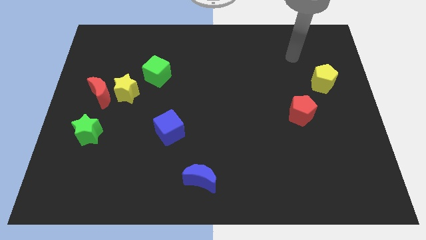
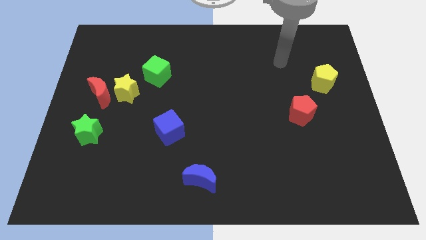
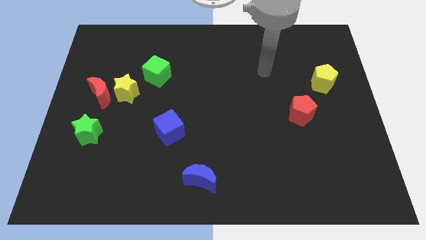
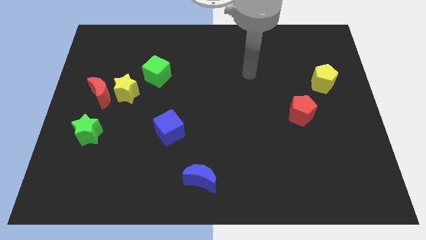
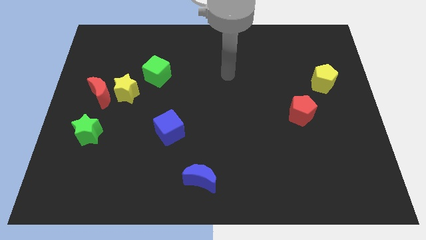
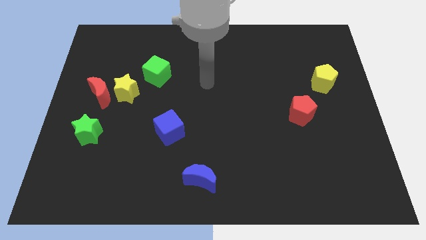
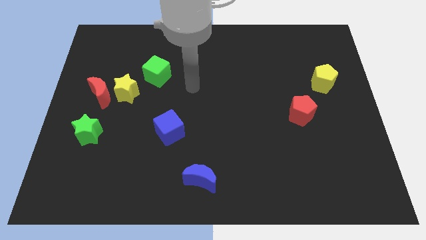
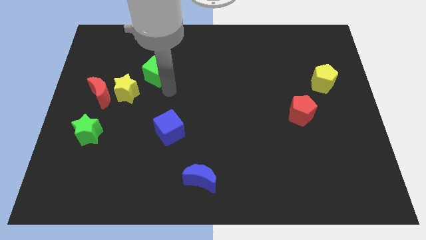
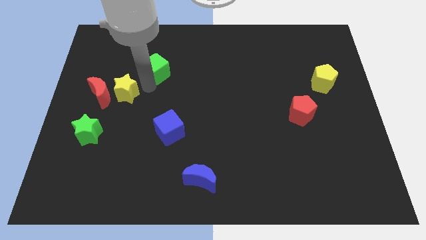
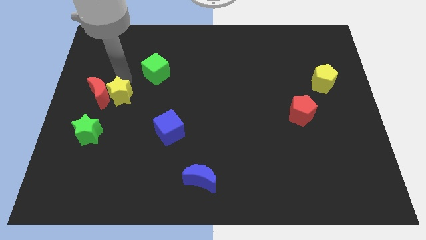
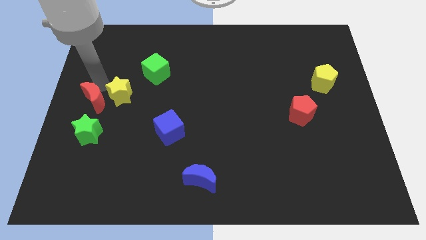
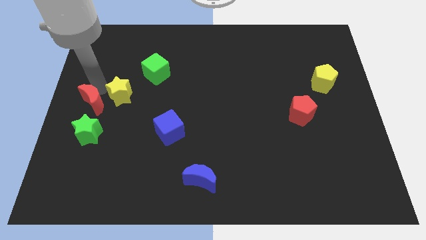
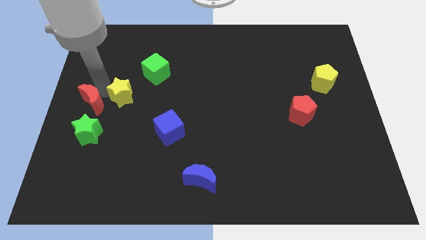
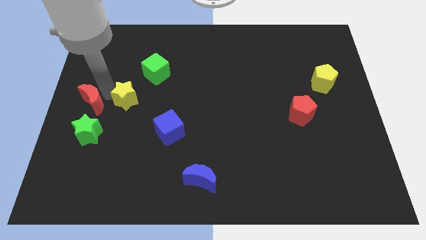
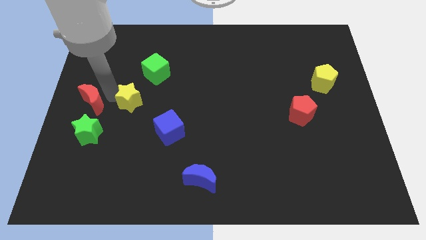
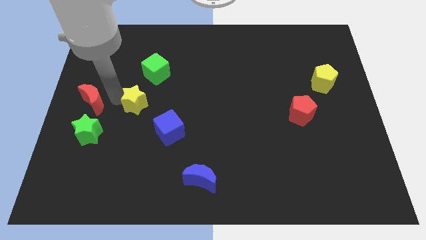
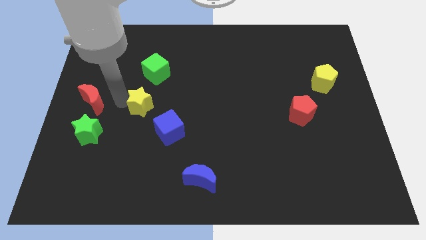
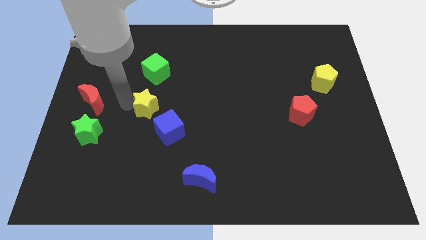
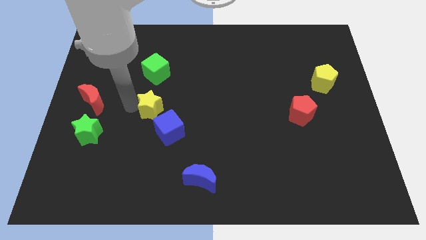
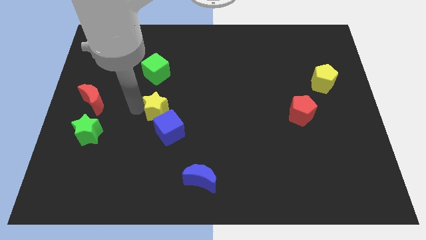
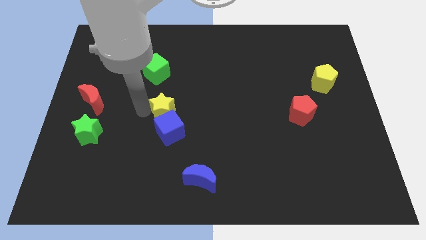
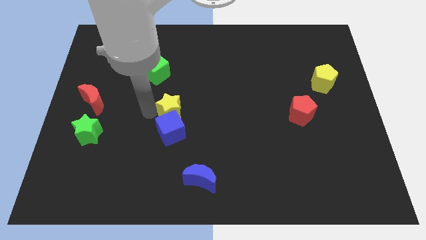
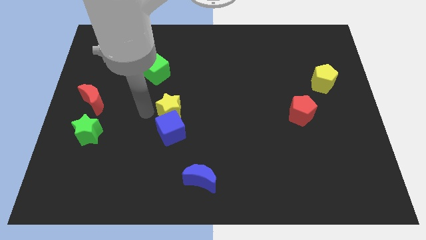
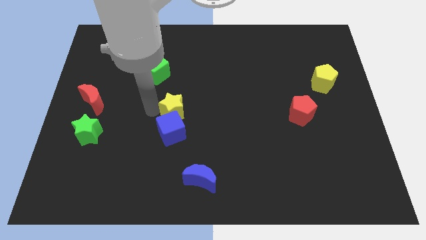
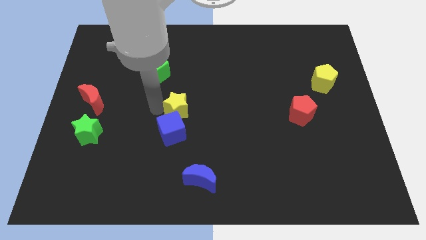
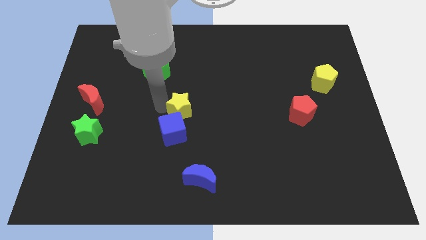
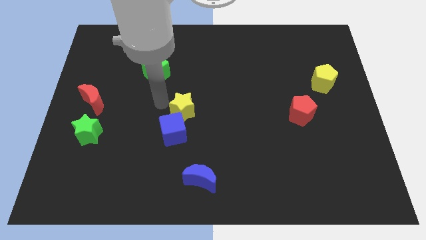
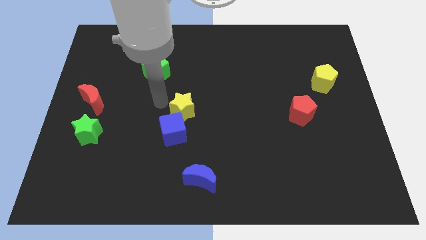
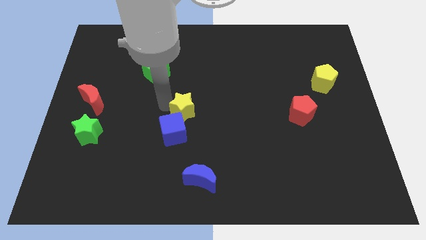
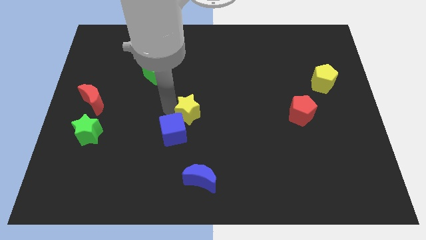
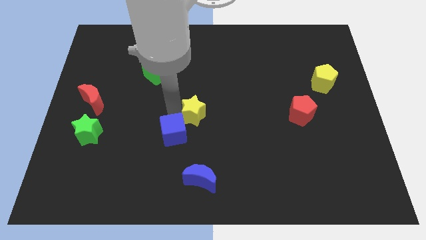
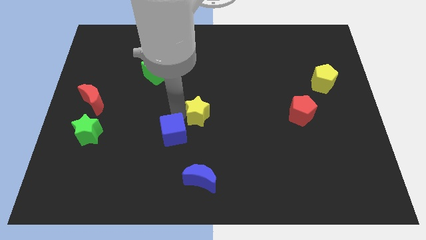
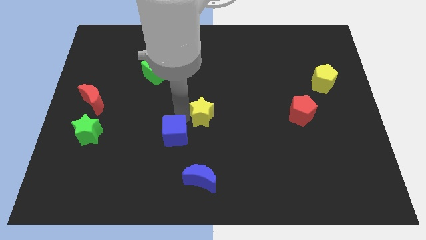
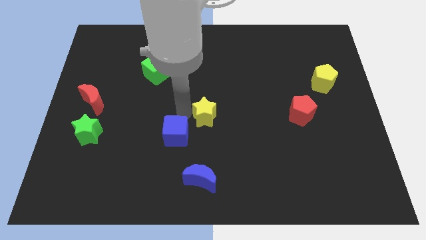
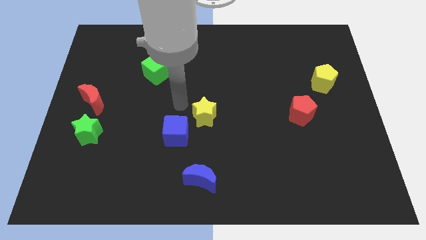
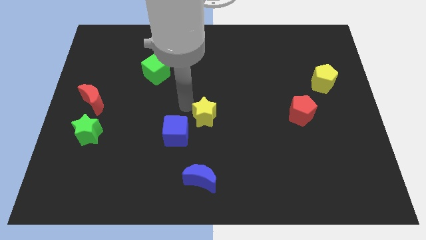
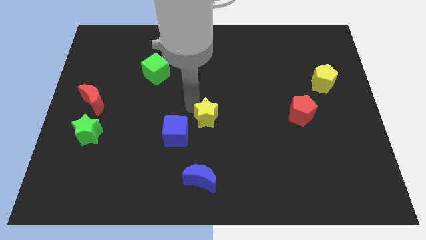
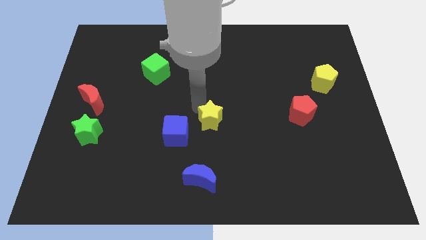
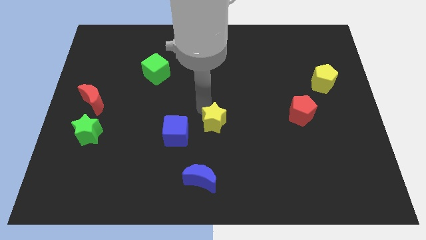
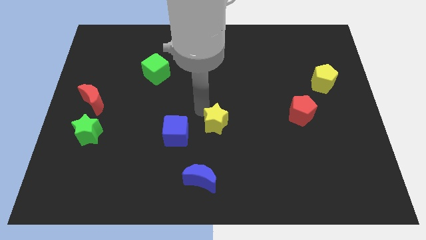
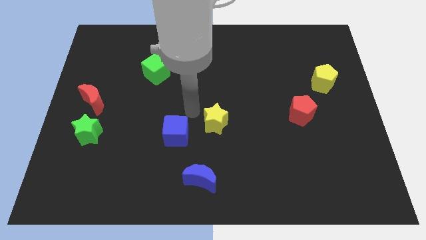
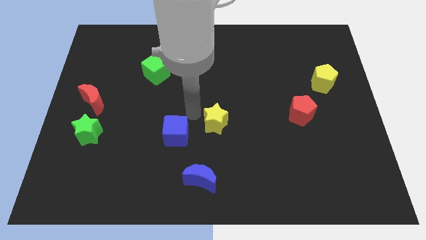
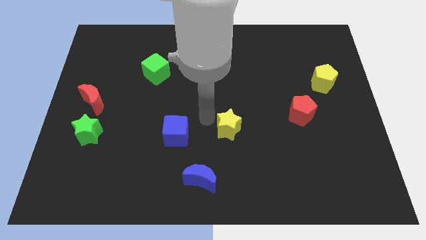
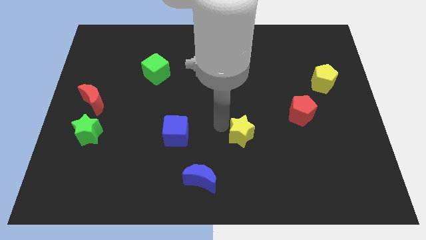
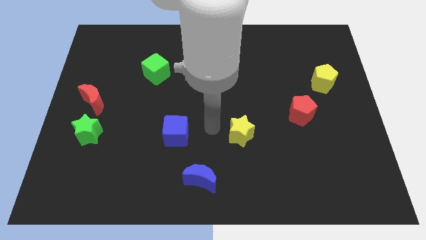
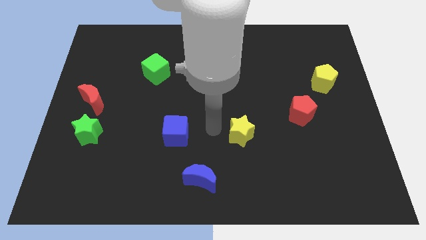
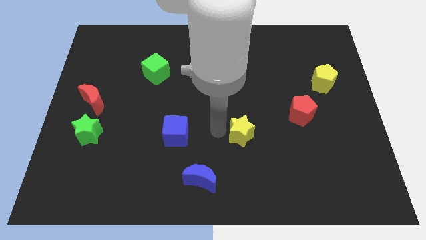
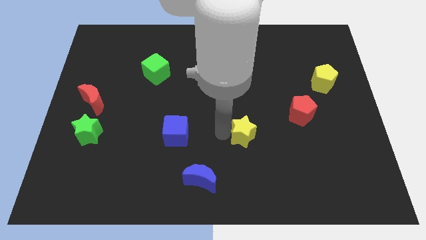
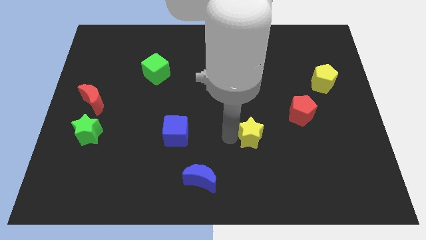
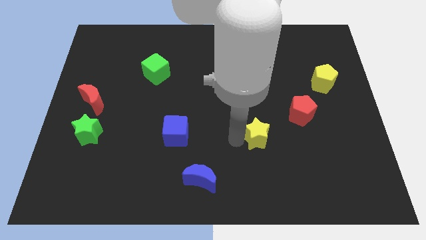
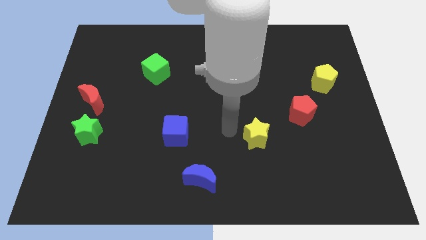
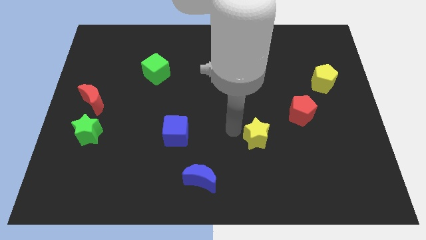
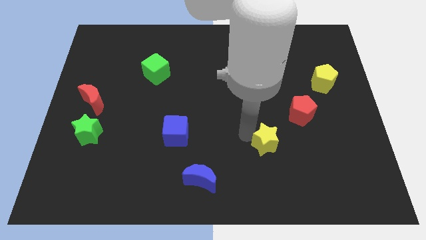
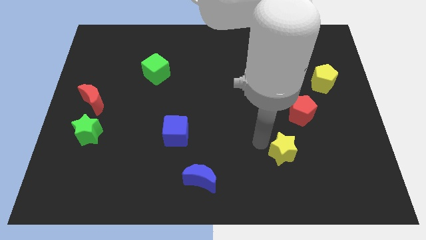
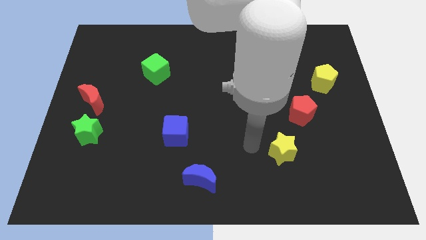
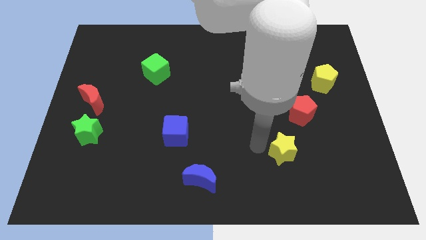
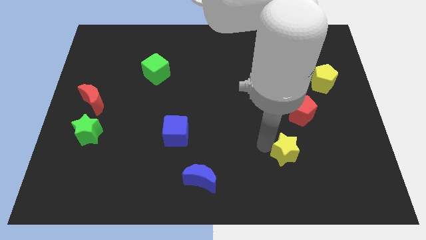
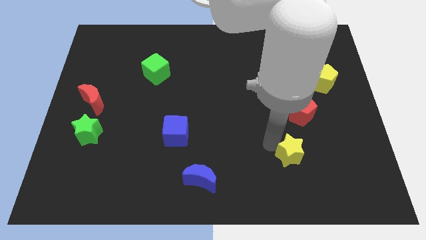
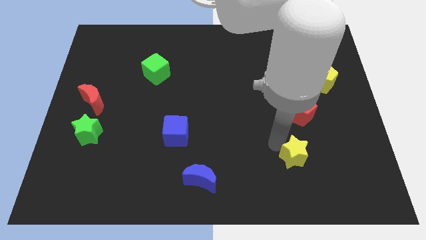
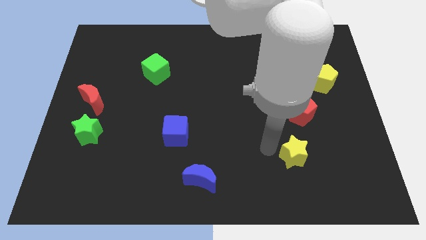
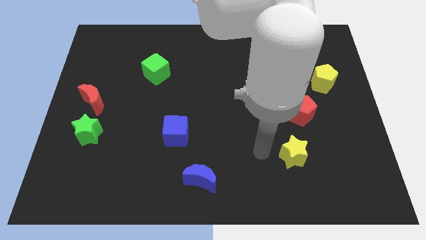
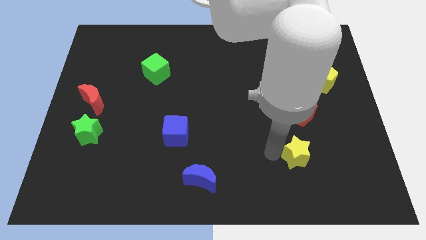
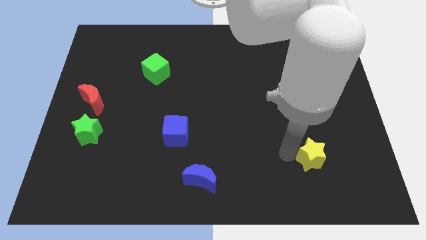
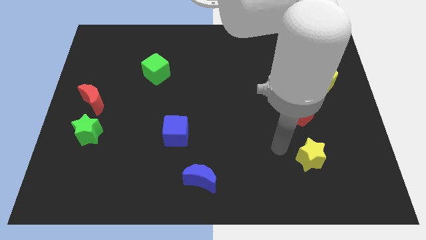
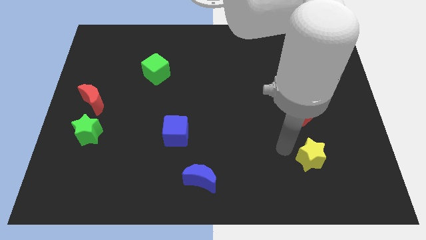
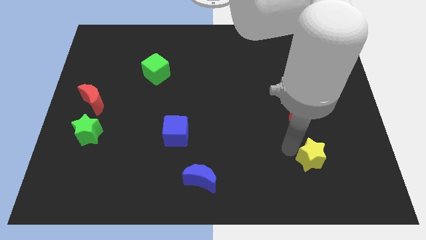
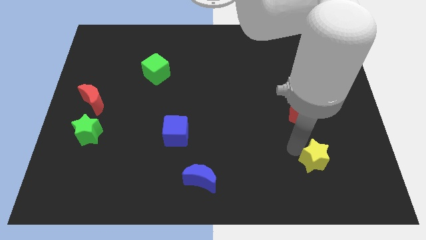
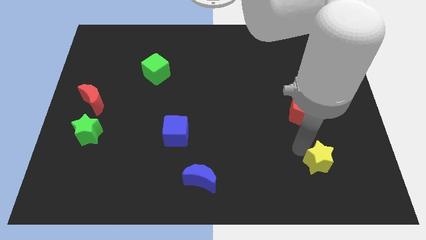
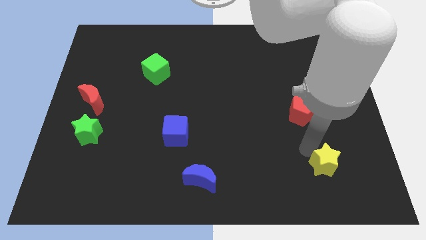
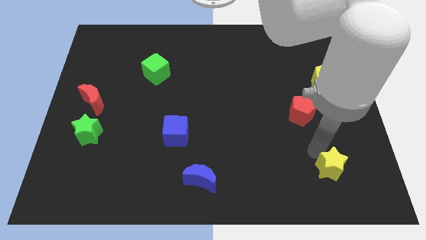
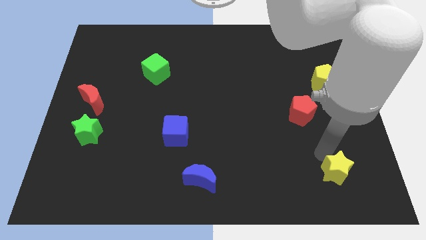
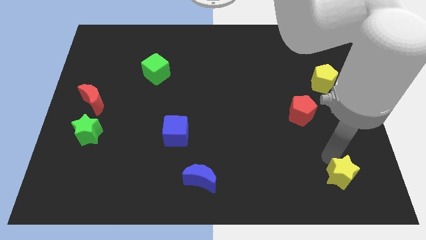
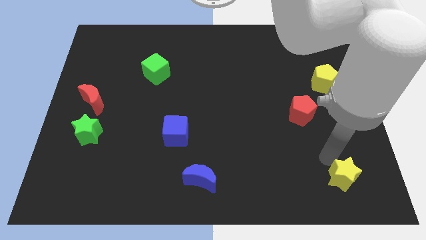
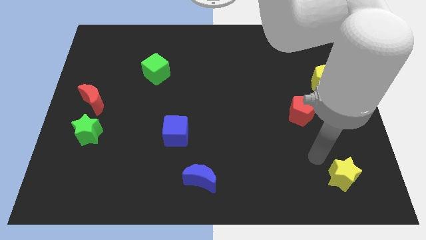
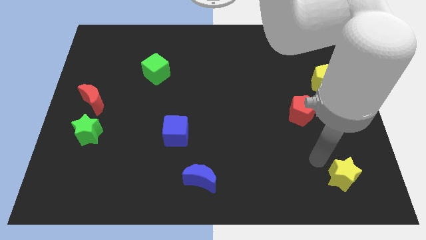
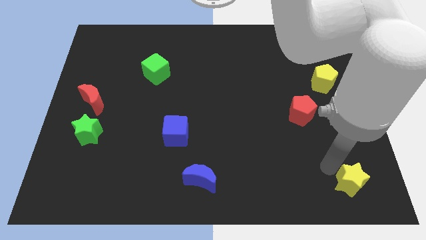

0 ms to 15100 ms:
push the yellow star to the bottom right corner
